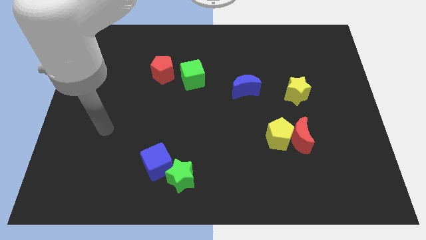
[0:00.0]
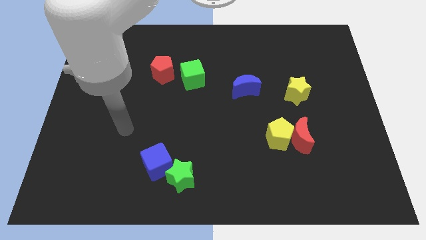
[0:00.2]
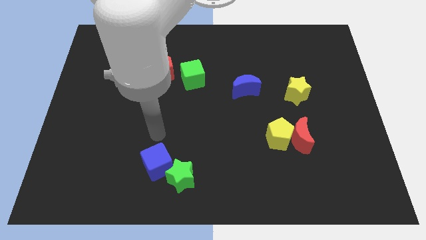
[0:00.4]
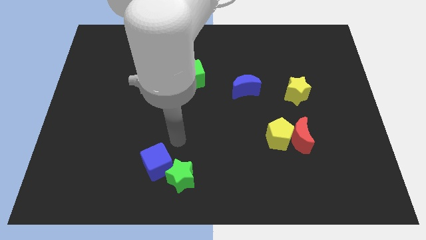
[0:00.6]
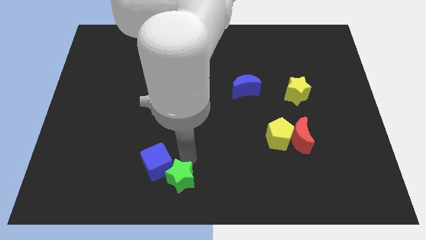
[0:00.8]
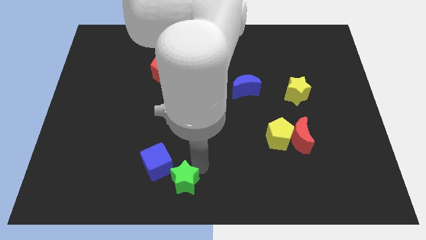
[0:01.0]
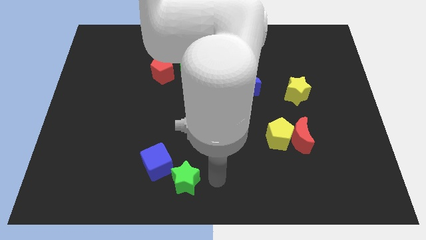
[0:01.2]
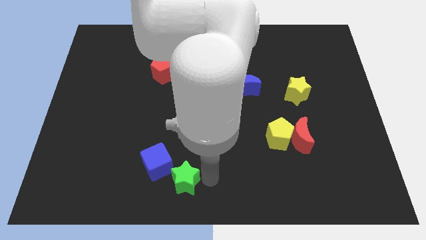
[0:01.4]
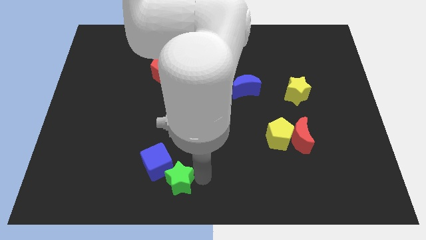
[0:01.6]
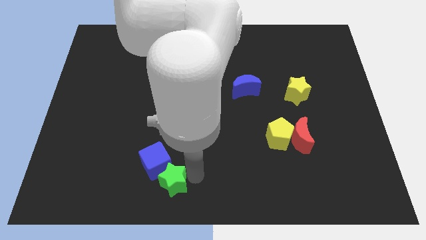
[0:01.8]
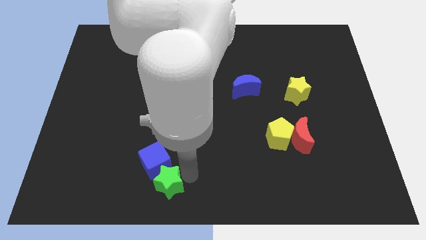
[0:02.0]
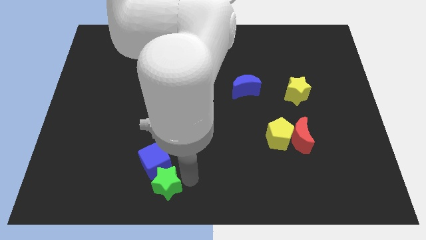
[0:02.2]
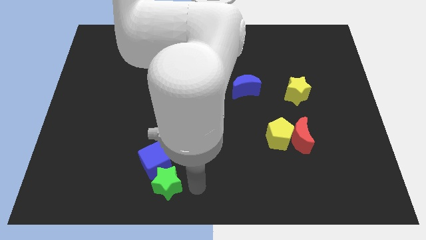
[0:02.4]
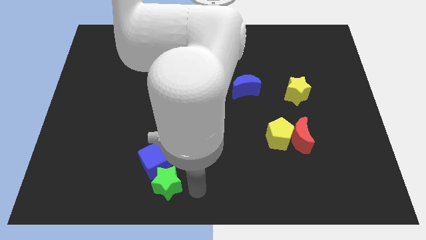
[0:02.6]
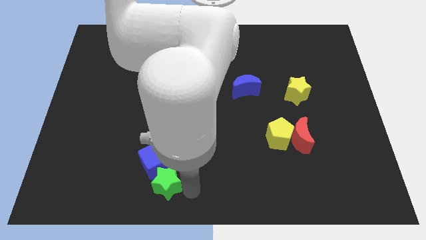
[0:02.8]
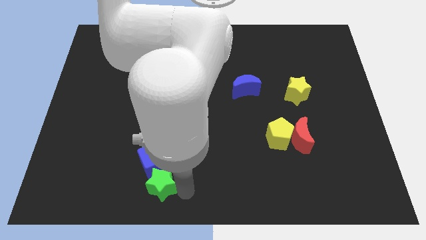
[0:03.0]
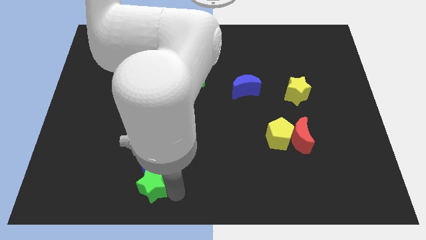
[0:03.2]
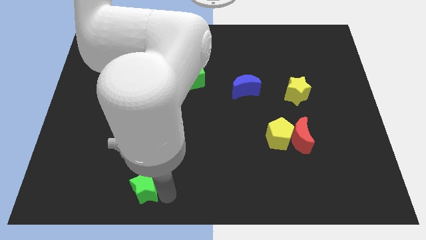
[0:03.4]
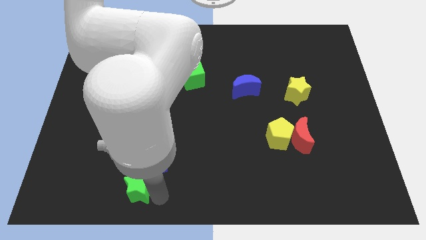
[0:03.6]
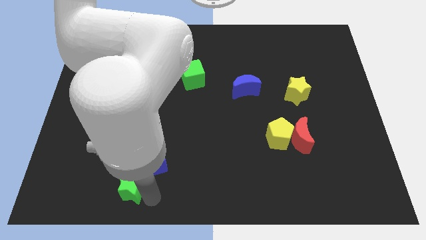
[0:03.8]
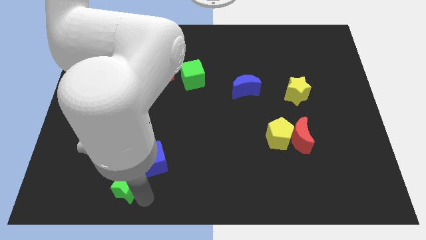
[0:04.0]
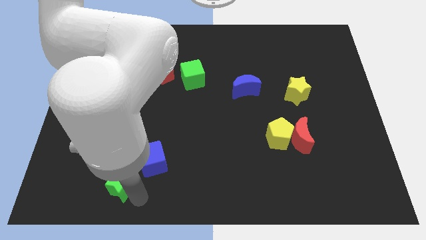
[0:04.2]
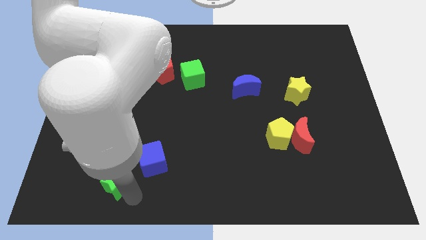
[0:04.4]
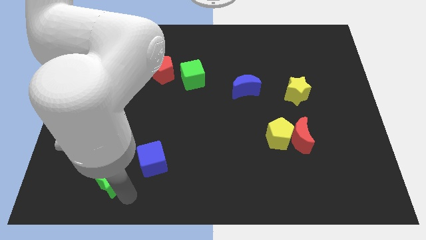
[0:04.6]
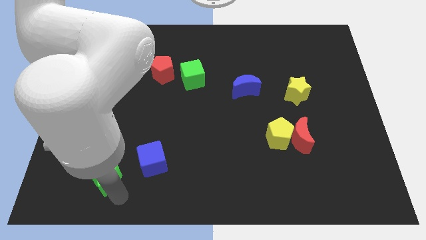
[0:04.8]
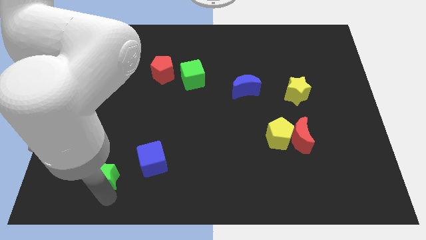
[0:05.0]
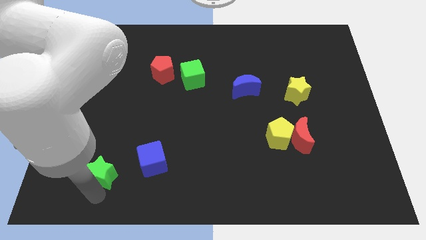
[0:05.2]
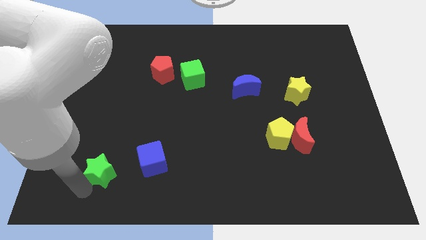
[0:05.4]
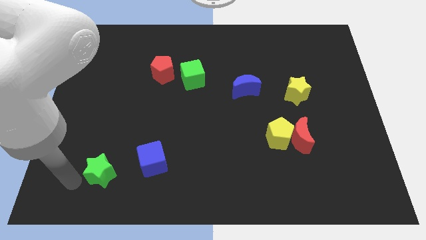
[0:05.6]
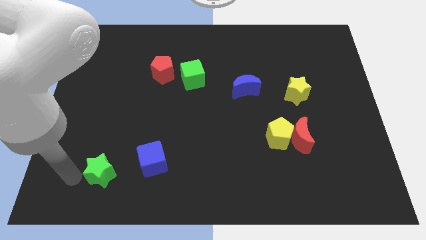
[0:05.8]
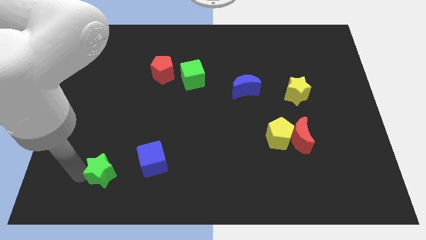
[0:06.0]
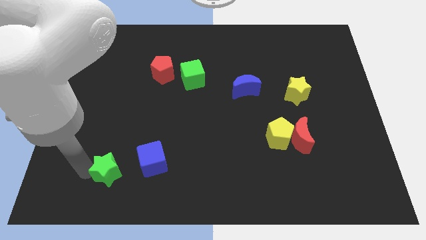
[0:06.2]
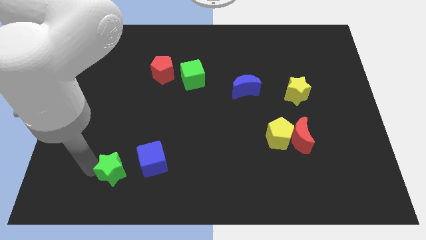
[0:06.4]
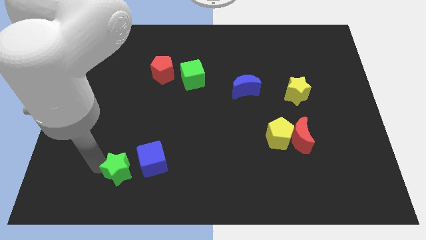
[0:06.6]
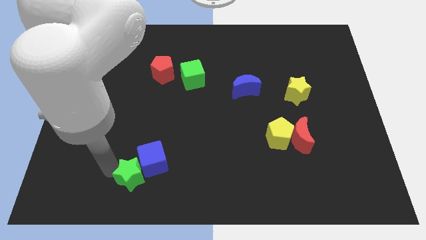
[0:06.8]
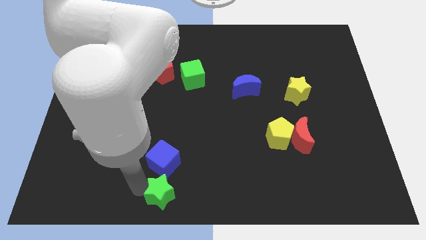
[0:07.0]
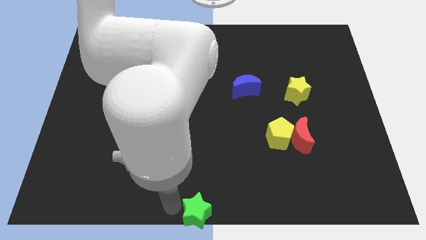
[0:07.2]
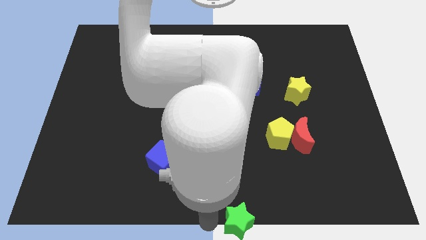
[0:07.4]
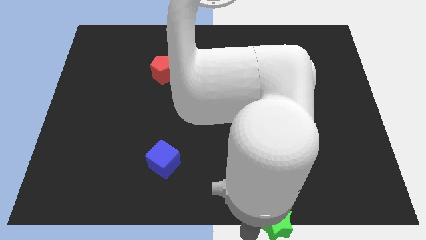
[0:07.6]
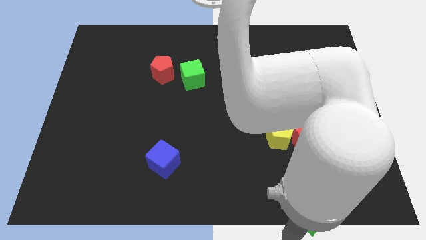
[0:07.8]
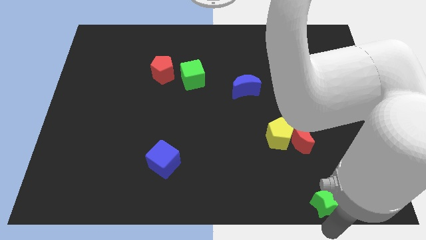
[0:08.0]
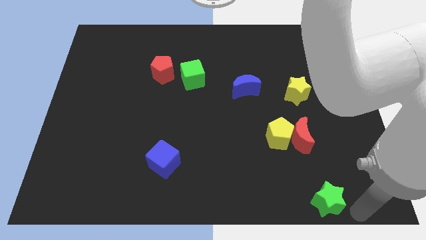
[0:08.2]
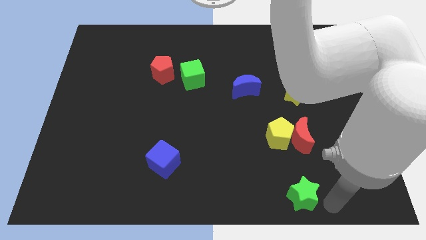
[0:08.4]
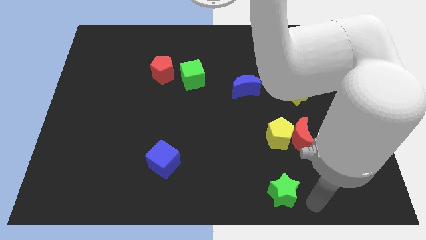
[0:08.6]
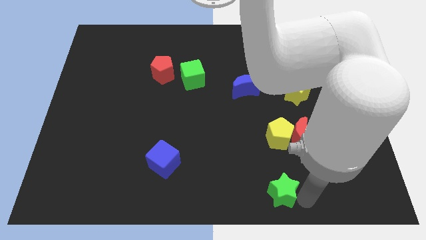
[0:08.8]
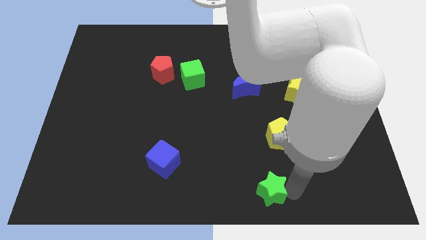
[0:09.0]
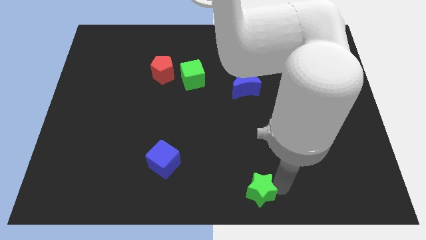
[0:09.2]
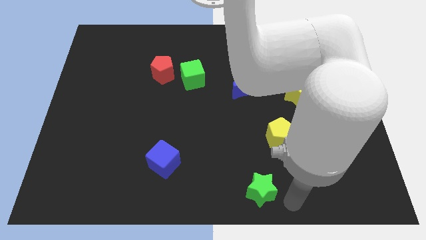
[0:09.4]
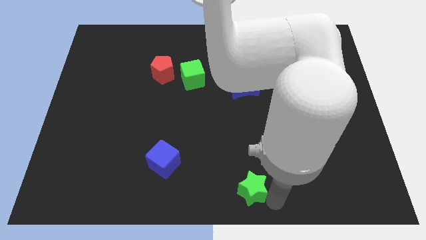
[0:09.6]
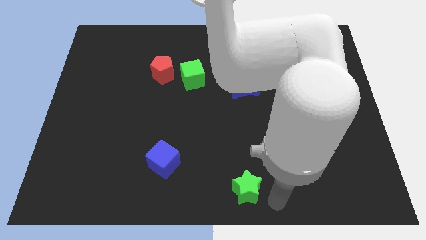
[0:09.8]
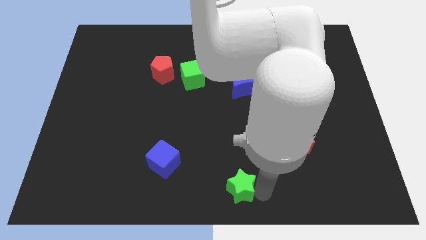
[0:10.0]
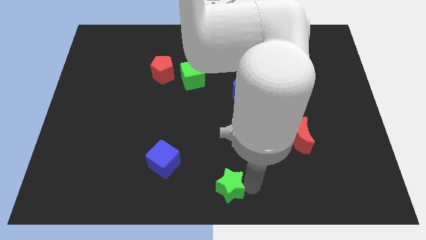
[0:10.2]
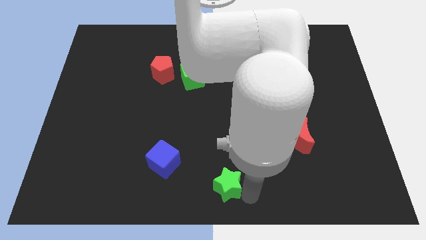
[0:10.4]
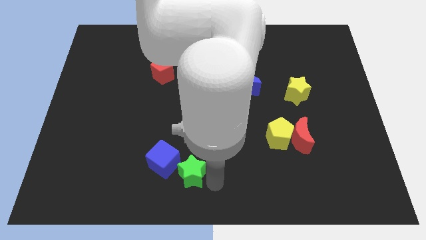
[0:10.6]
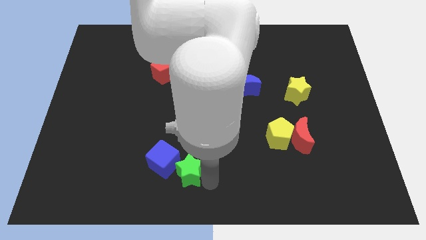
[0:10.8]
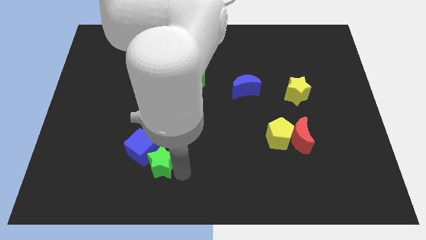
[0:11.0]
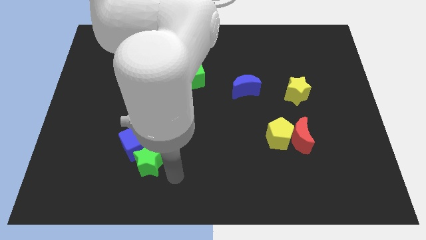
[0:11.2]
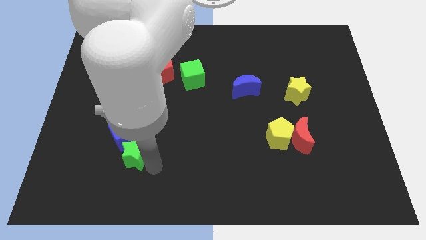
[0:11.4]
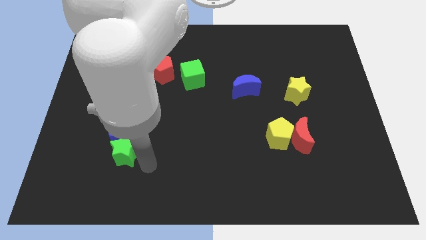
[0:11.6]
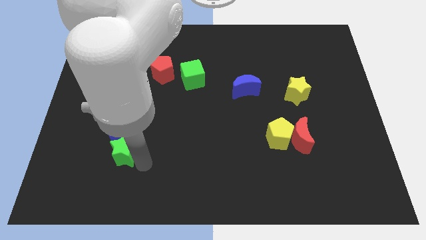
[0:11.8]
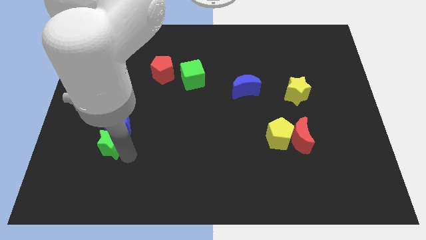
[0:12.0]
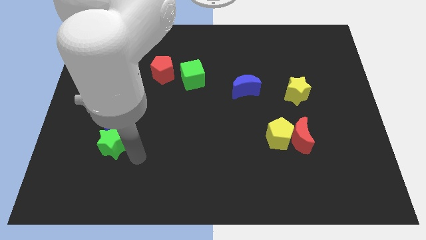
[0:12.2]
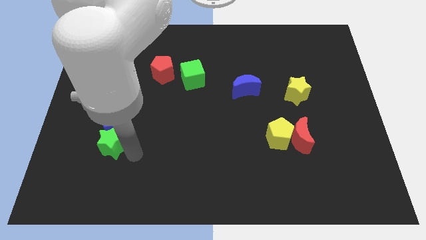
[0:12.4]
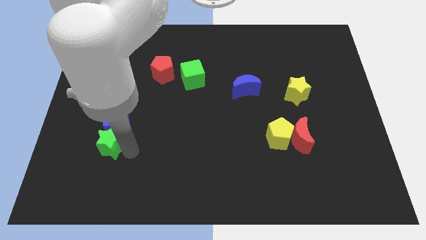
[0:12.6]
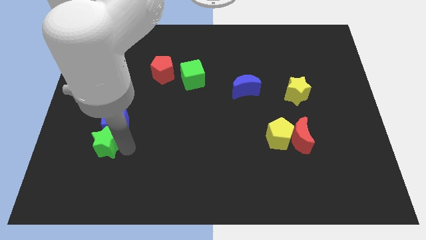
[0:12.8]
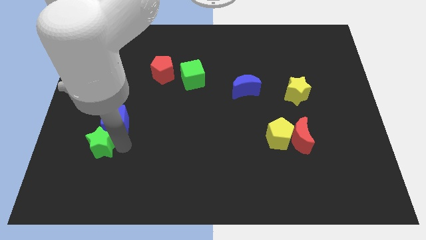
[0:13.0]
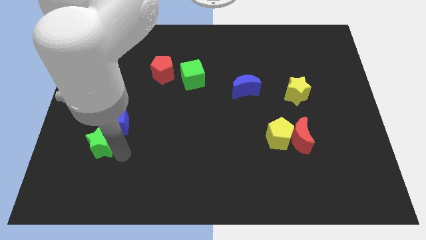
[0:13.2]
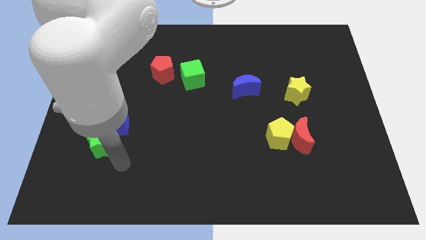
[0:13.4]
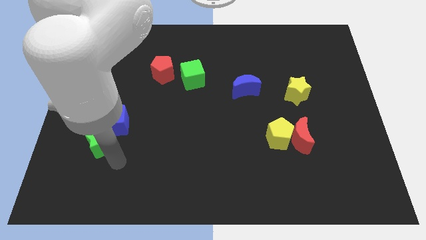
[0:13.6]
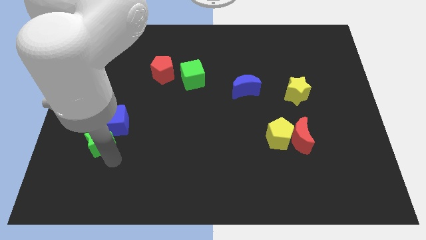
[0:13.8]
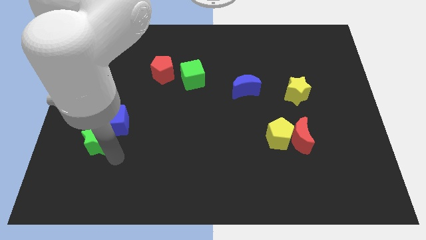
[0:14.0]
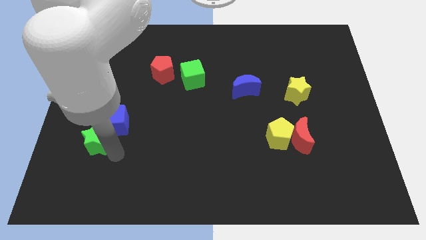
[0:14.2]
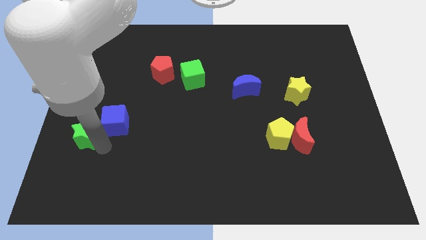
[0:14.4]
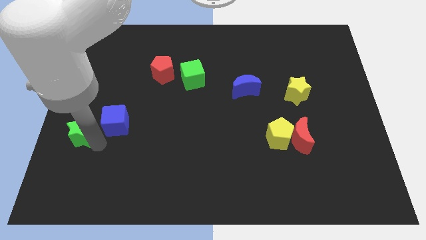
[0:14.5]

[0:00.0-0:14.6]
move the green star to the left side
